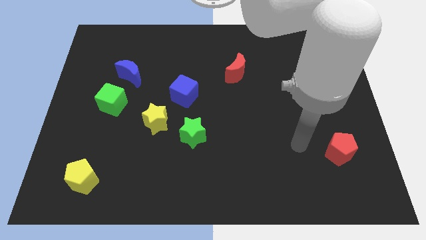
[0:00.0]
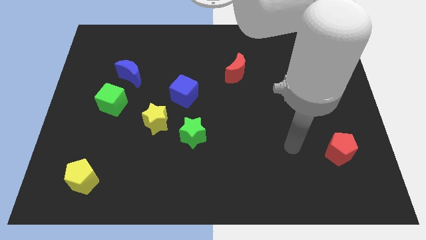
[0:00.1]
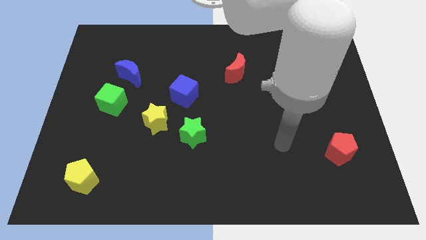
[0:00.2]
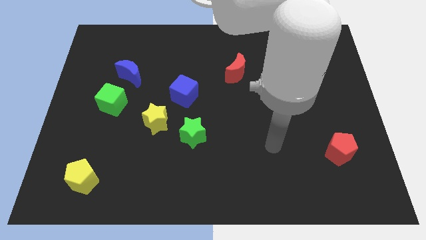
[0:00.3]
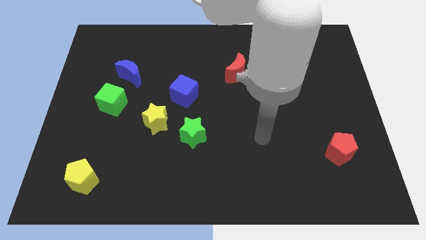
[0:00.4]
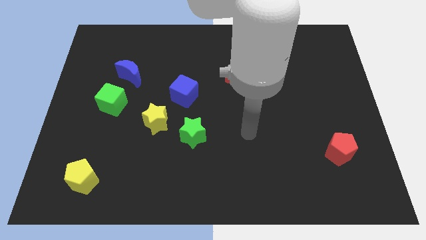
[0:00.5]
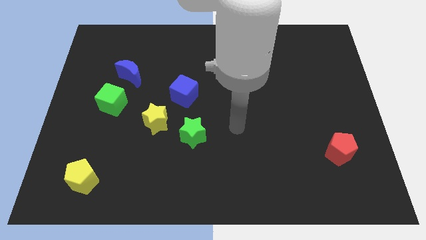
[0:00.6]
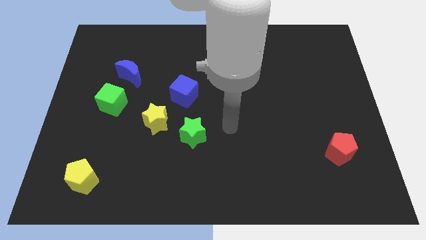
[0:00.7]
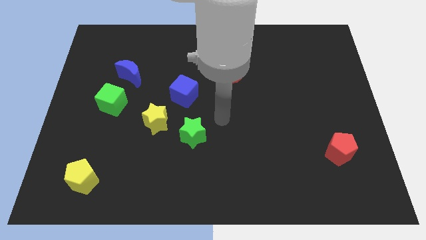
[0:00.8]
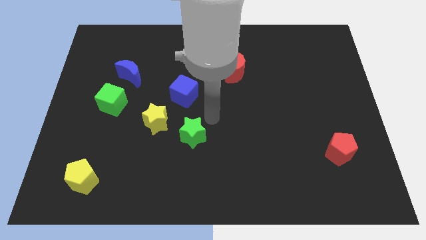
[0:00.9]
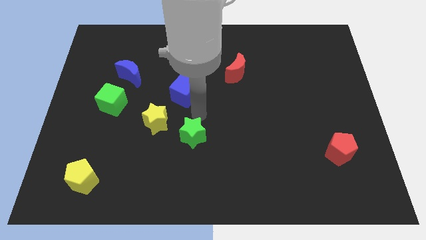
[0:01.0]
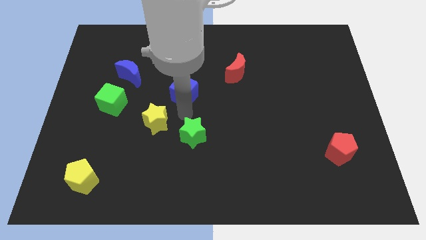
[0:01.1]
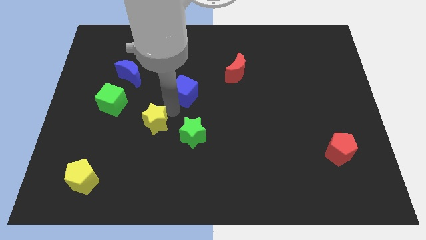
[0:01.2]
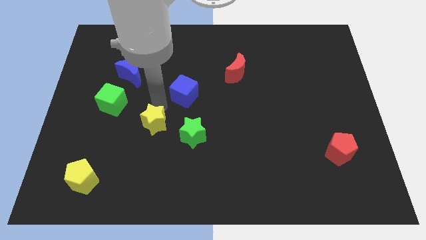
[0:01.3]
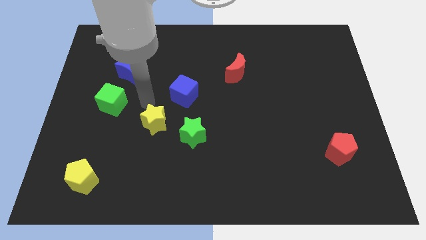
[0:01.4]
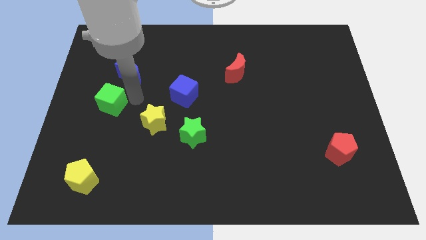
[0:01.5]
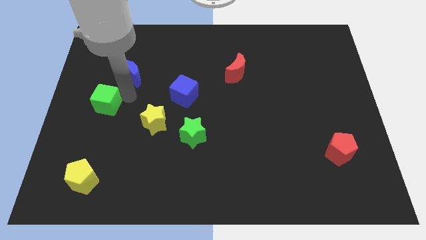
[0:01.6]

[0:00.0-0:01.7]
pull the blue moon apart from the green cube

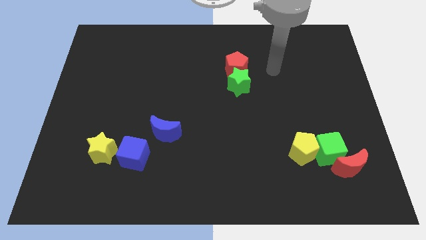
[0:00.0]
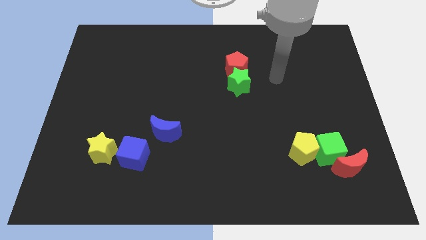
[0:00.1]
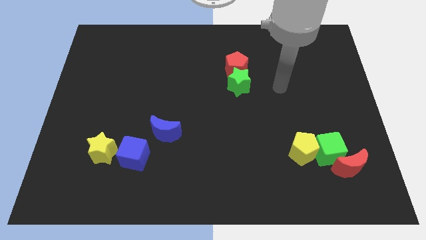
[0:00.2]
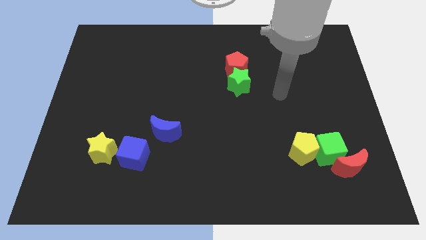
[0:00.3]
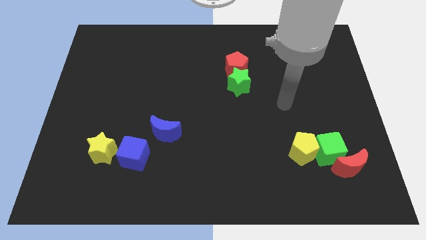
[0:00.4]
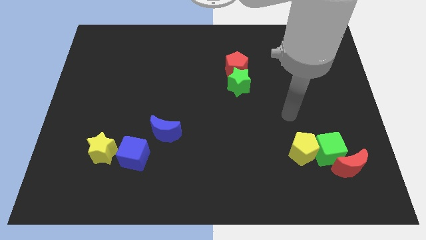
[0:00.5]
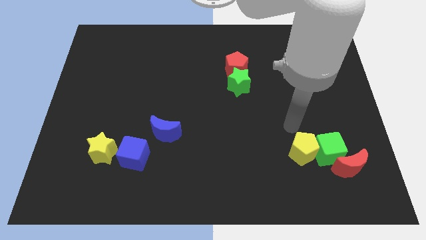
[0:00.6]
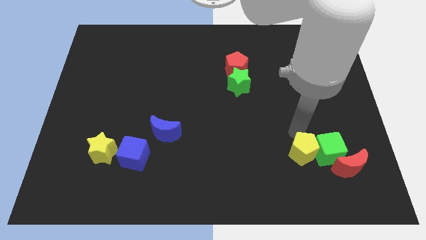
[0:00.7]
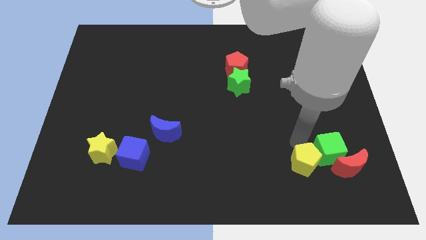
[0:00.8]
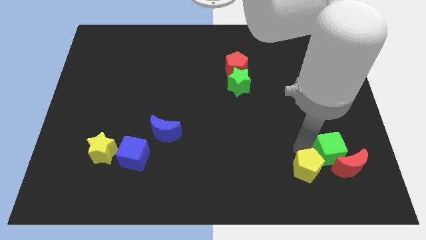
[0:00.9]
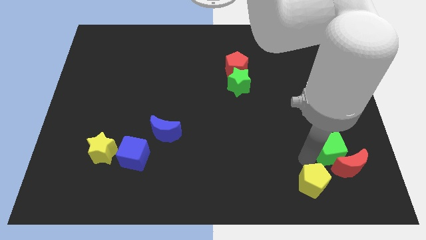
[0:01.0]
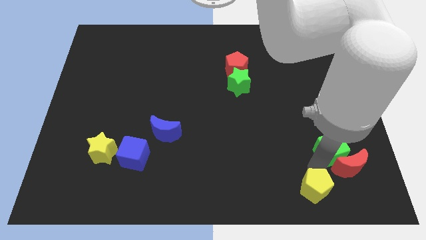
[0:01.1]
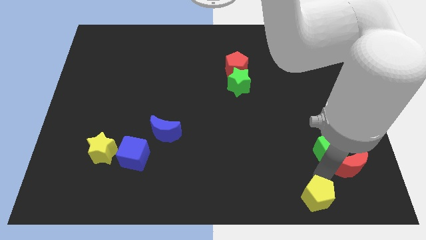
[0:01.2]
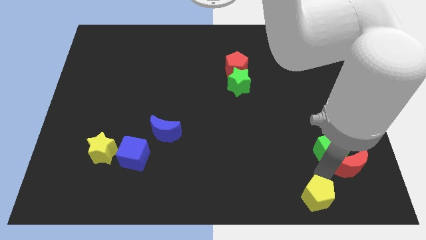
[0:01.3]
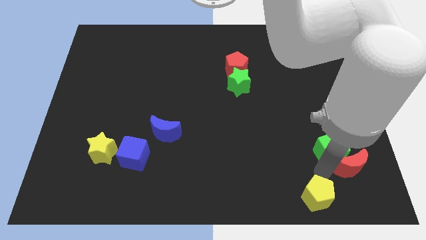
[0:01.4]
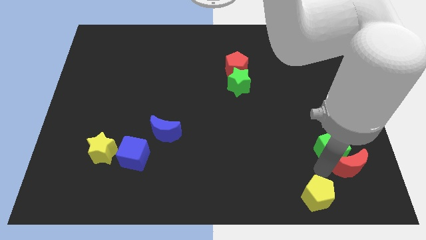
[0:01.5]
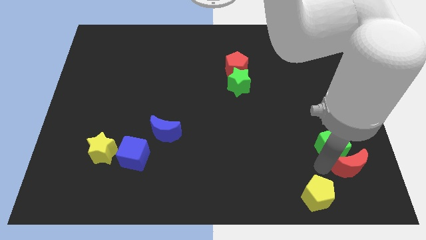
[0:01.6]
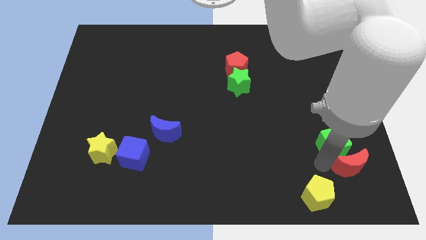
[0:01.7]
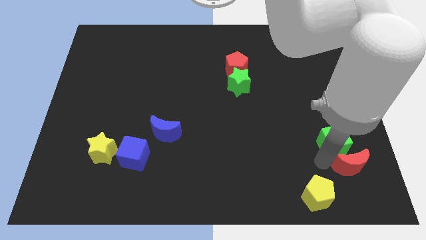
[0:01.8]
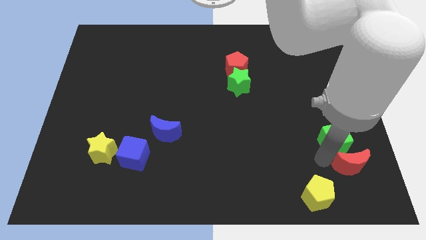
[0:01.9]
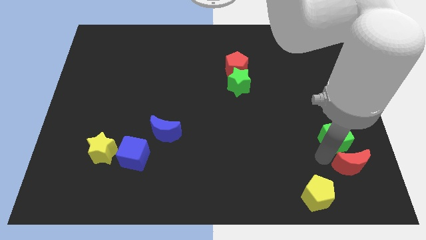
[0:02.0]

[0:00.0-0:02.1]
separate the green cube from the yellow pentagon and red moon

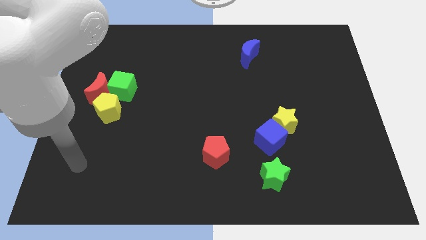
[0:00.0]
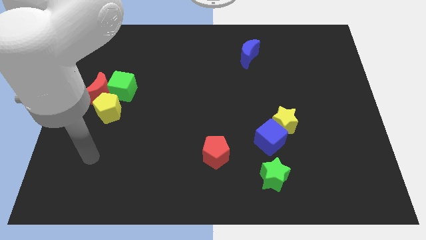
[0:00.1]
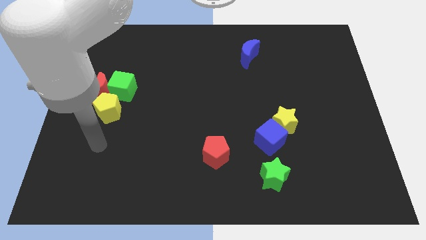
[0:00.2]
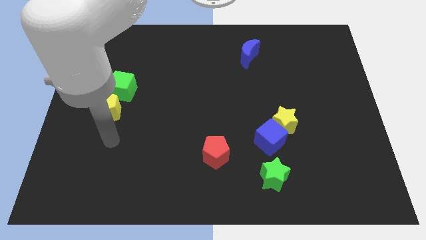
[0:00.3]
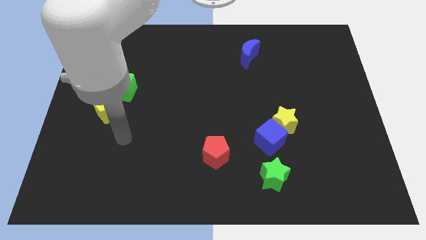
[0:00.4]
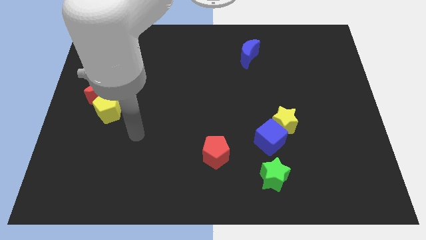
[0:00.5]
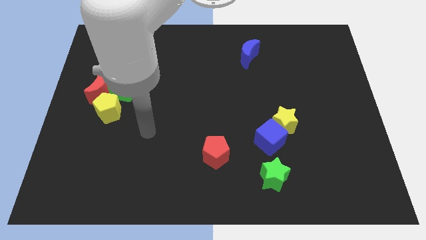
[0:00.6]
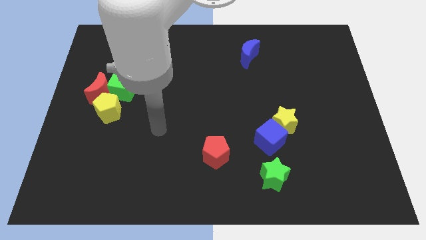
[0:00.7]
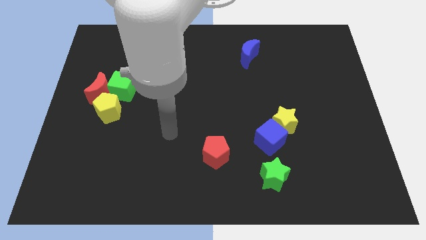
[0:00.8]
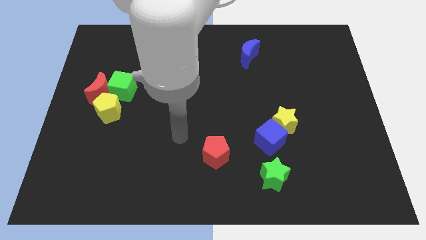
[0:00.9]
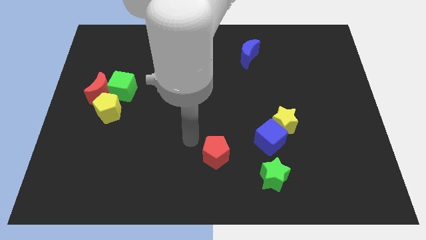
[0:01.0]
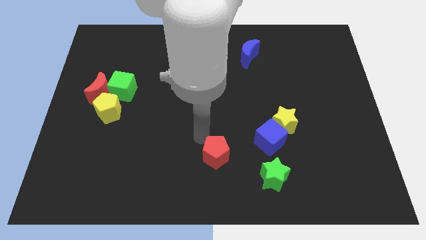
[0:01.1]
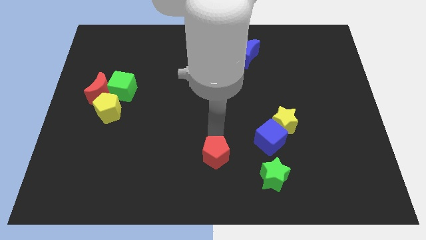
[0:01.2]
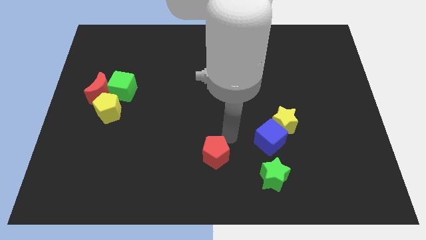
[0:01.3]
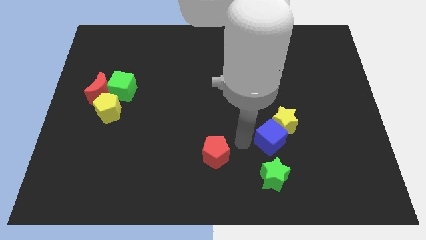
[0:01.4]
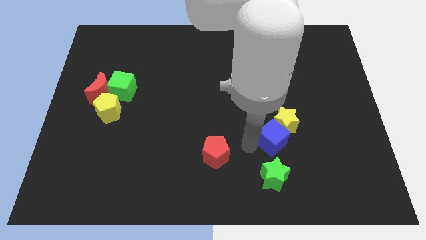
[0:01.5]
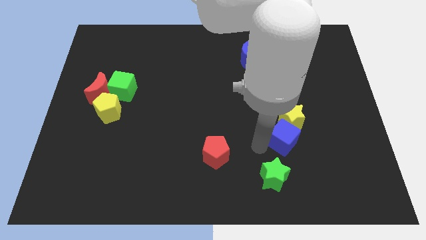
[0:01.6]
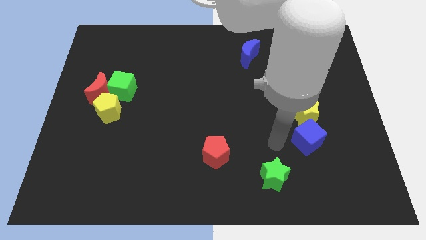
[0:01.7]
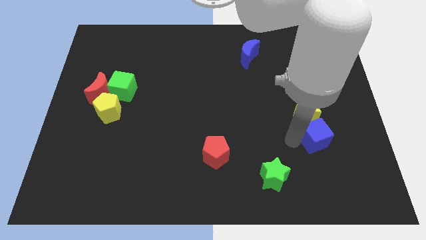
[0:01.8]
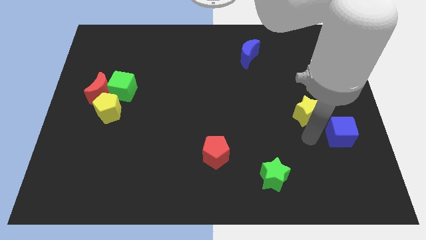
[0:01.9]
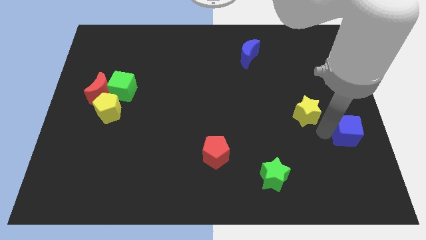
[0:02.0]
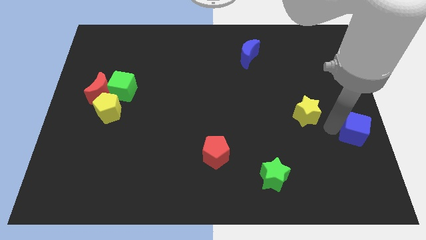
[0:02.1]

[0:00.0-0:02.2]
move the yellow star away from the blue cube

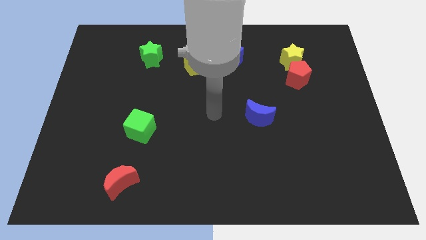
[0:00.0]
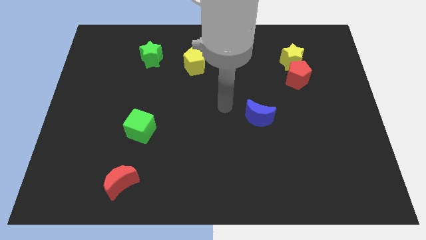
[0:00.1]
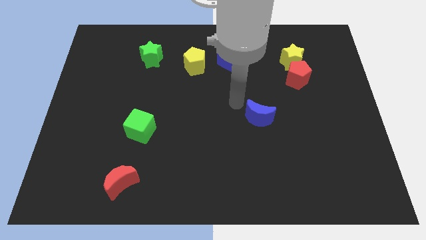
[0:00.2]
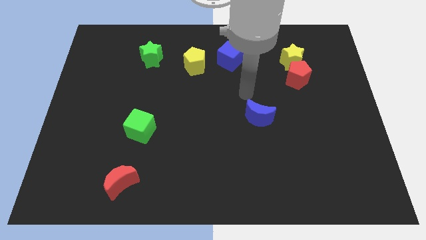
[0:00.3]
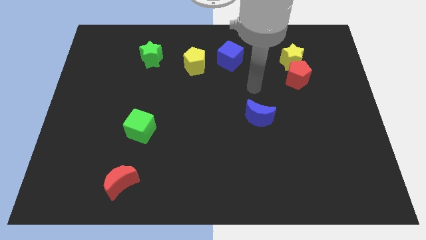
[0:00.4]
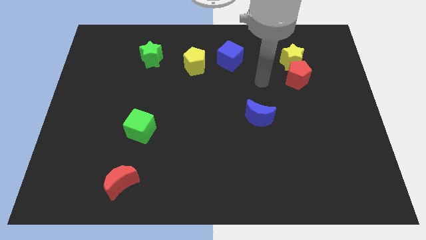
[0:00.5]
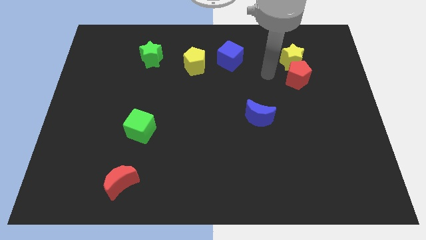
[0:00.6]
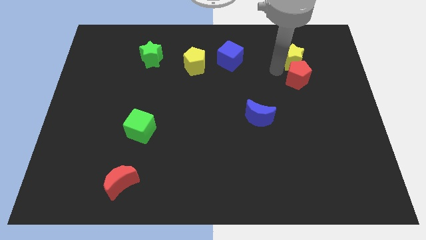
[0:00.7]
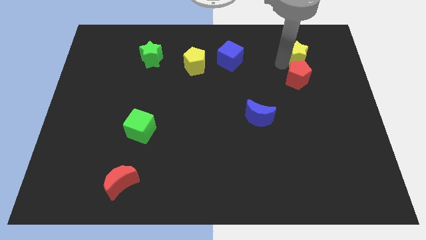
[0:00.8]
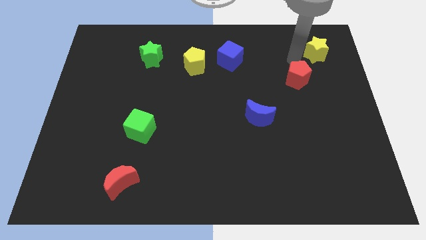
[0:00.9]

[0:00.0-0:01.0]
separate the red pentagon from the yellow star

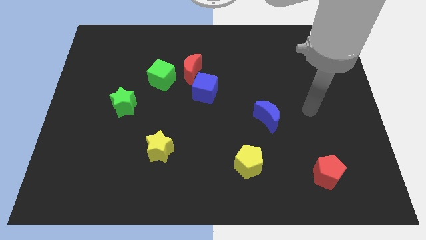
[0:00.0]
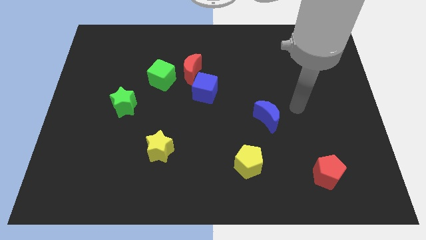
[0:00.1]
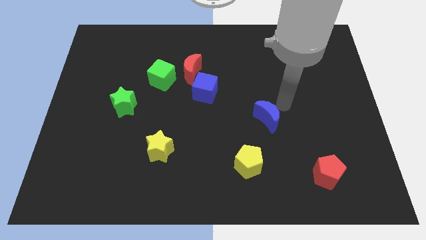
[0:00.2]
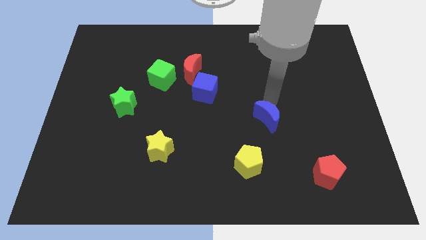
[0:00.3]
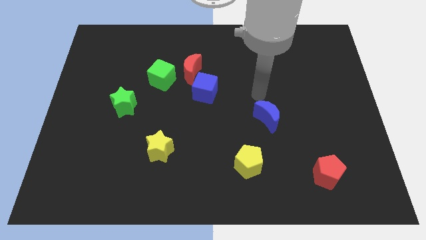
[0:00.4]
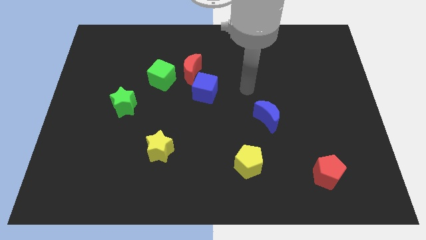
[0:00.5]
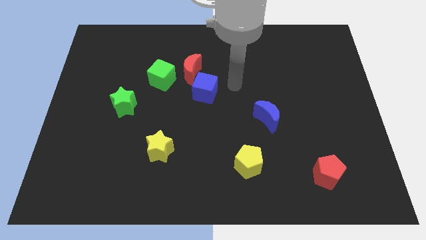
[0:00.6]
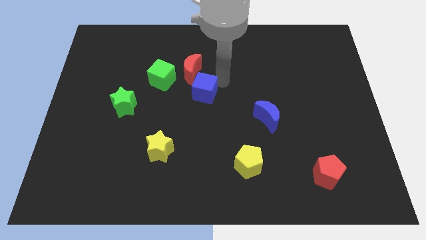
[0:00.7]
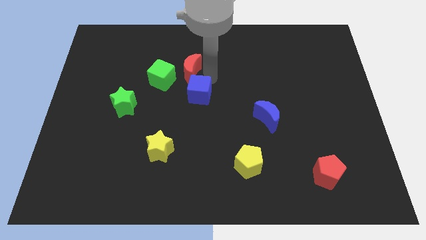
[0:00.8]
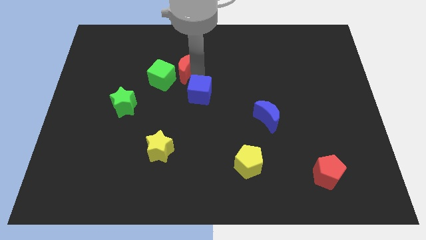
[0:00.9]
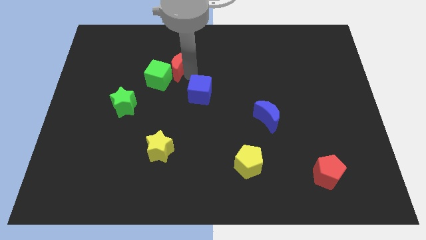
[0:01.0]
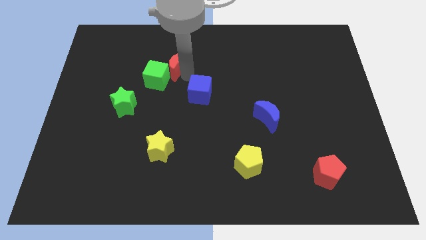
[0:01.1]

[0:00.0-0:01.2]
pull the blue cube apart from the red moon

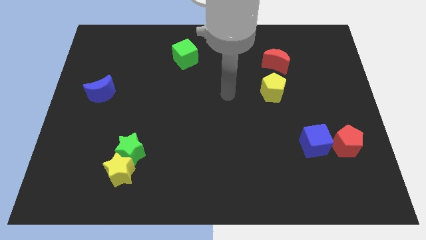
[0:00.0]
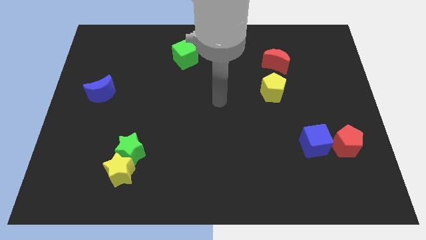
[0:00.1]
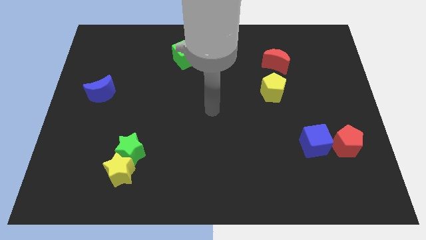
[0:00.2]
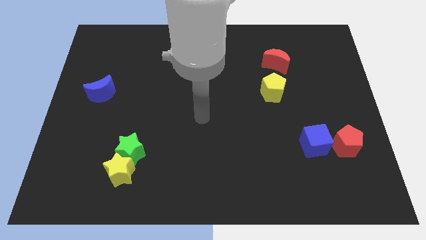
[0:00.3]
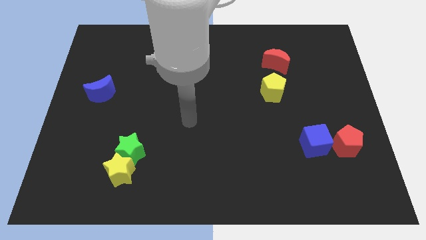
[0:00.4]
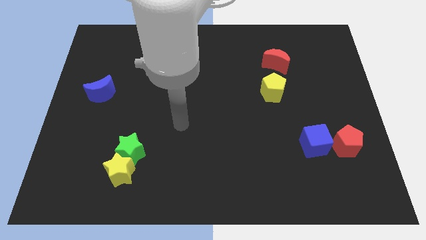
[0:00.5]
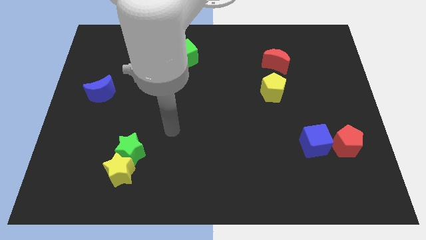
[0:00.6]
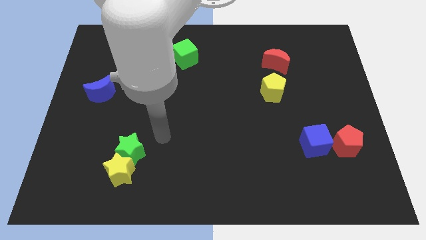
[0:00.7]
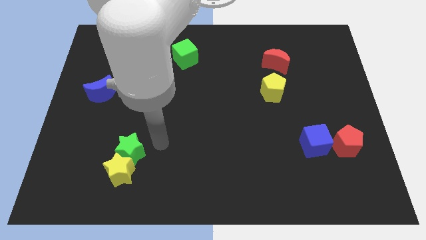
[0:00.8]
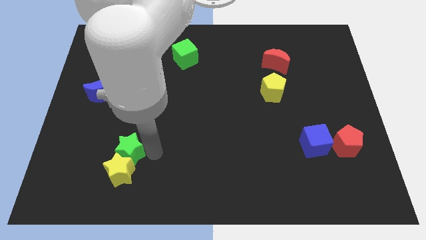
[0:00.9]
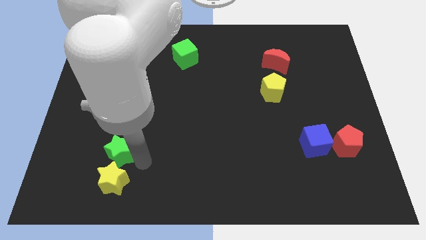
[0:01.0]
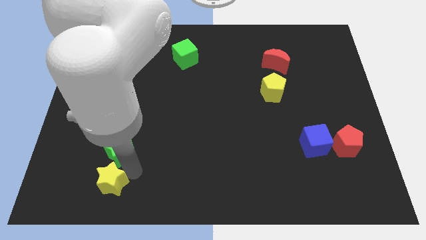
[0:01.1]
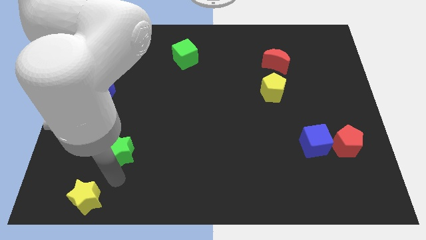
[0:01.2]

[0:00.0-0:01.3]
pull the green star apart from the yellow star
